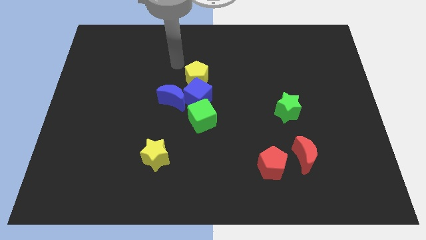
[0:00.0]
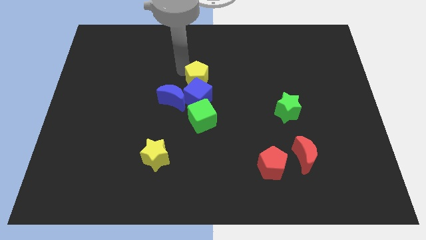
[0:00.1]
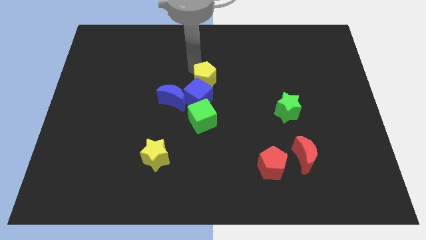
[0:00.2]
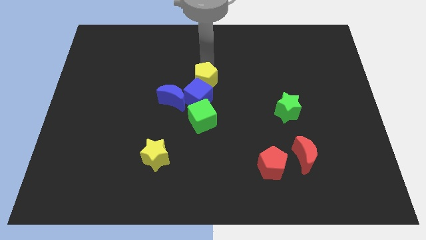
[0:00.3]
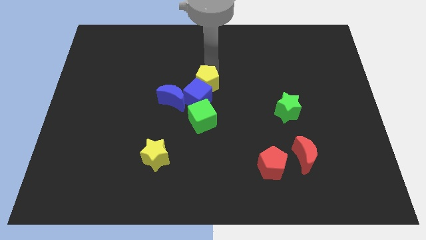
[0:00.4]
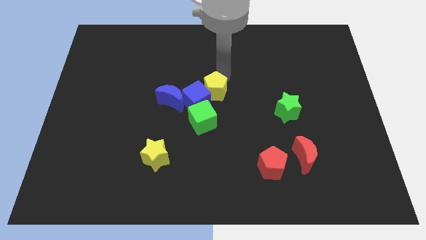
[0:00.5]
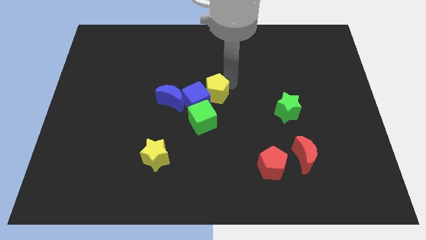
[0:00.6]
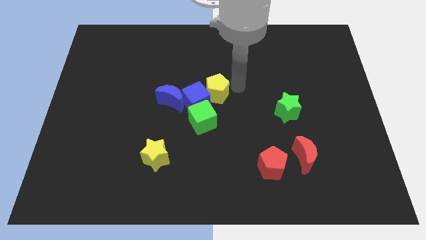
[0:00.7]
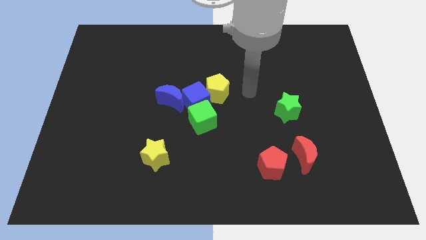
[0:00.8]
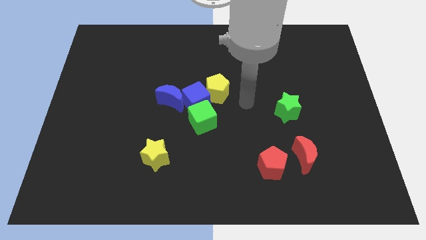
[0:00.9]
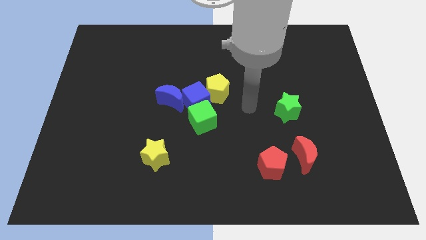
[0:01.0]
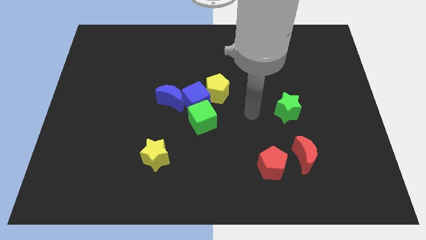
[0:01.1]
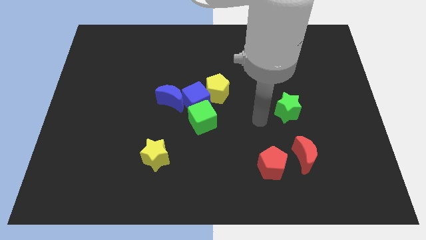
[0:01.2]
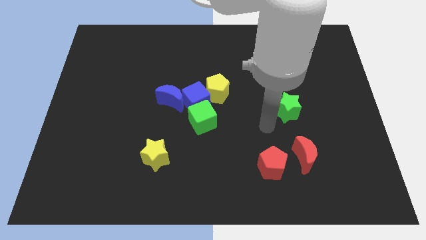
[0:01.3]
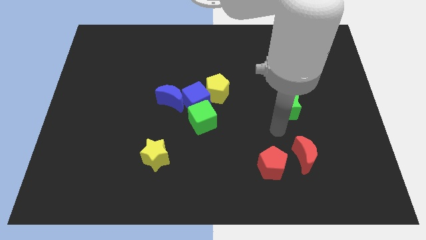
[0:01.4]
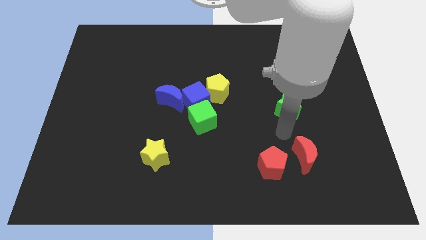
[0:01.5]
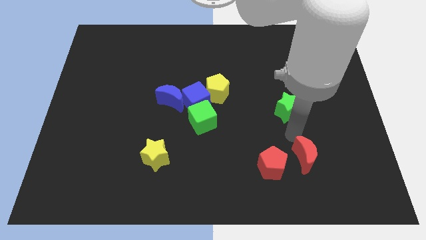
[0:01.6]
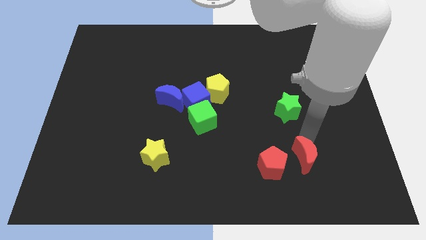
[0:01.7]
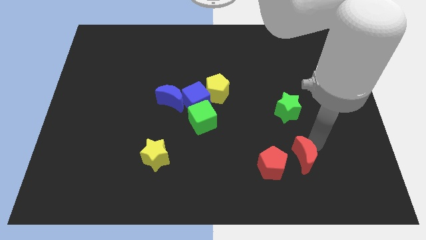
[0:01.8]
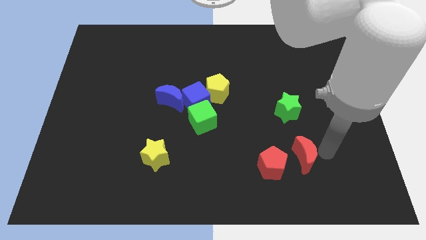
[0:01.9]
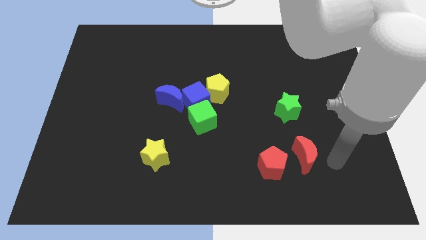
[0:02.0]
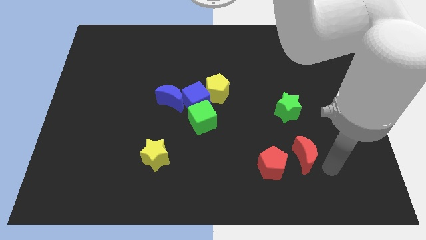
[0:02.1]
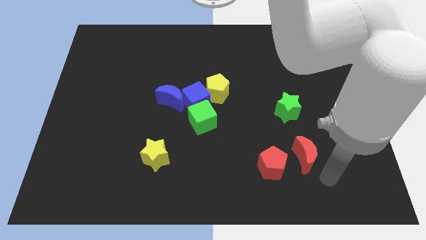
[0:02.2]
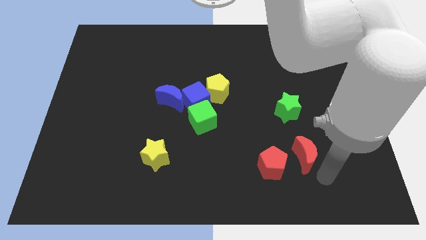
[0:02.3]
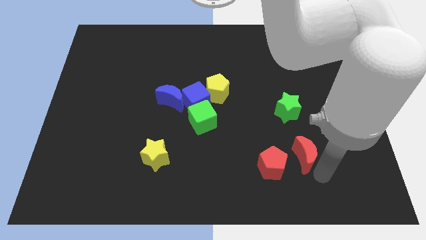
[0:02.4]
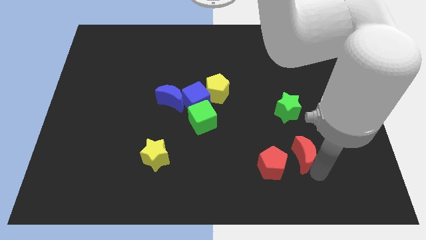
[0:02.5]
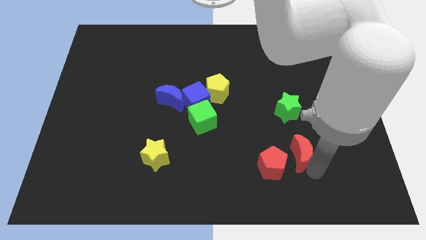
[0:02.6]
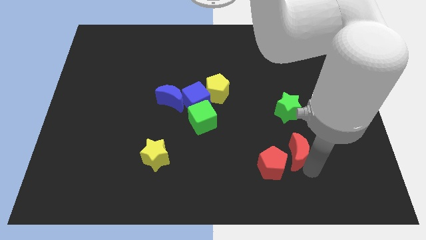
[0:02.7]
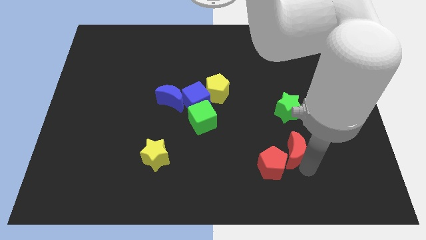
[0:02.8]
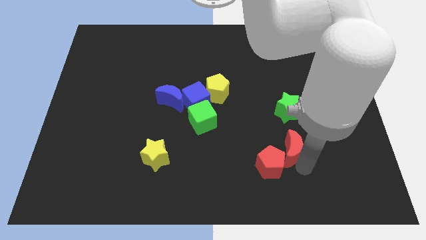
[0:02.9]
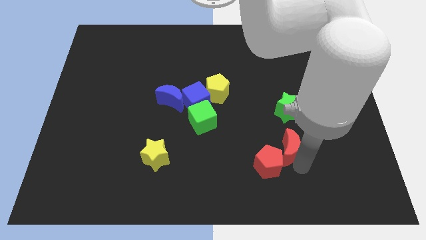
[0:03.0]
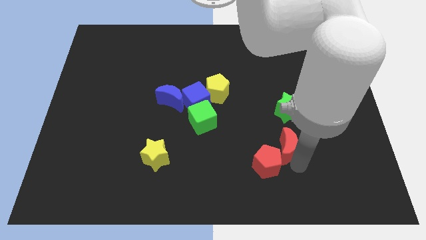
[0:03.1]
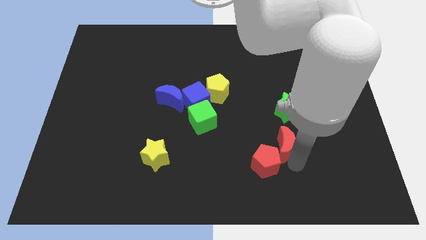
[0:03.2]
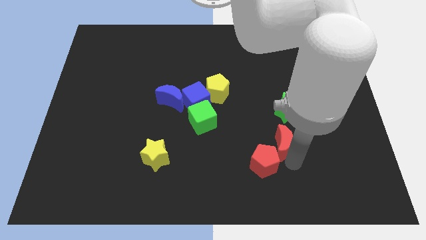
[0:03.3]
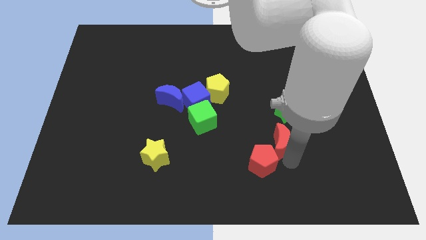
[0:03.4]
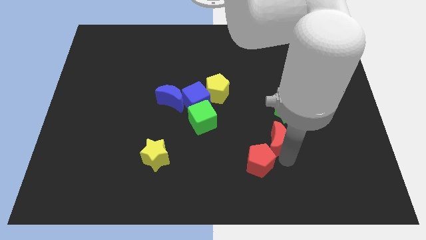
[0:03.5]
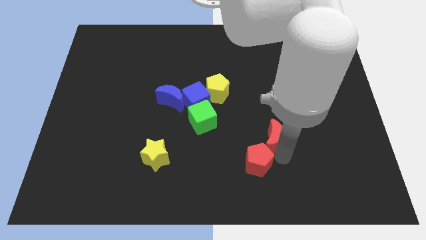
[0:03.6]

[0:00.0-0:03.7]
slightly push the red moon up and then left

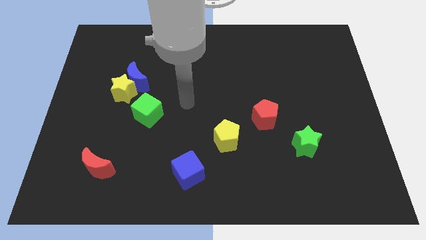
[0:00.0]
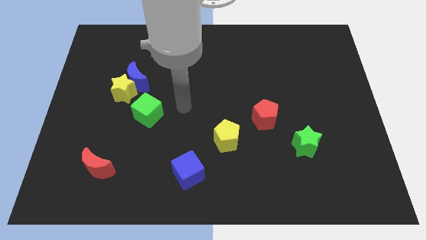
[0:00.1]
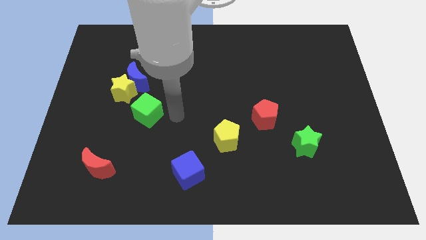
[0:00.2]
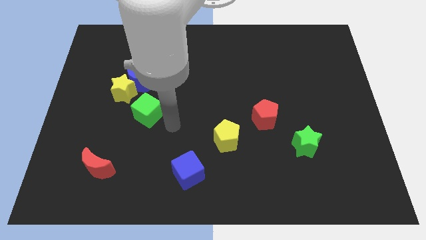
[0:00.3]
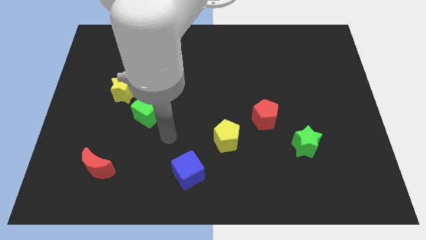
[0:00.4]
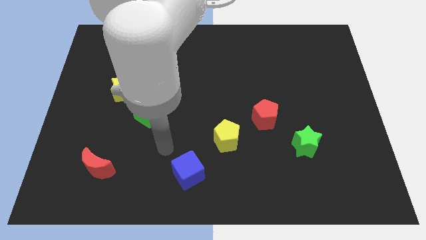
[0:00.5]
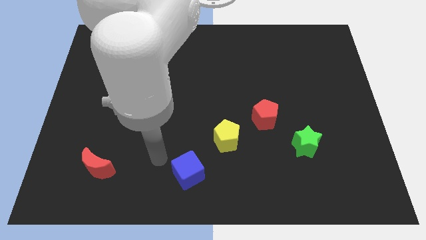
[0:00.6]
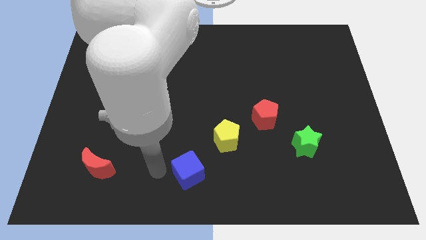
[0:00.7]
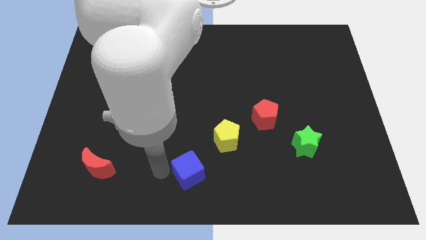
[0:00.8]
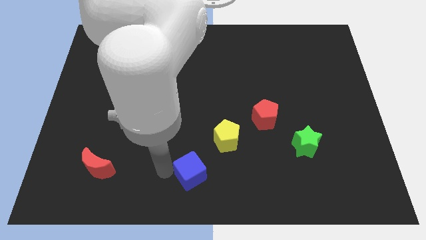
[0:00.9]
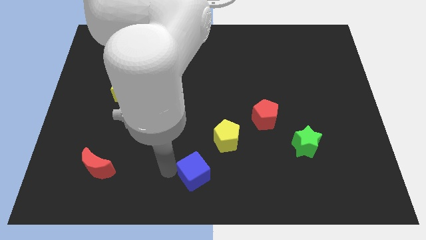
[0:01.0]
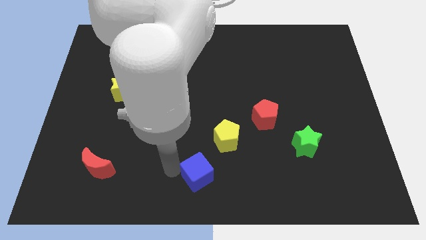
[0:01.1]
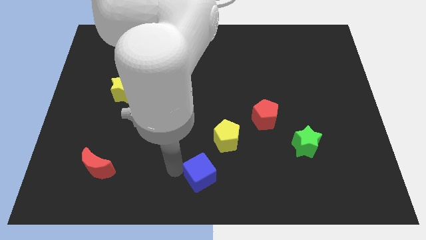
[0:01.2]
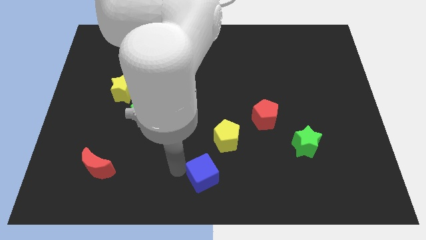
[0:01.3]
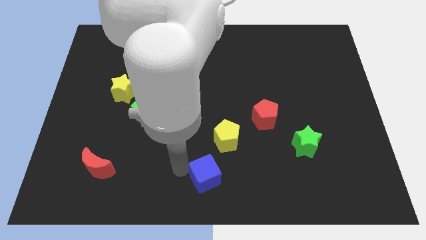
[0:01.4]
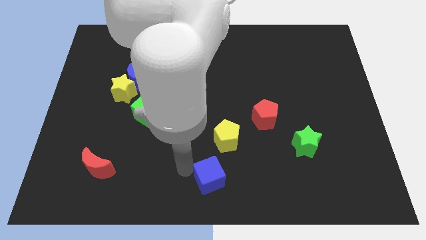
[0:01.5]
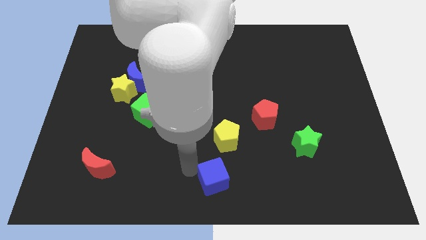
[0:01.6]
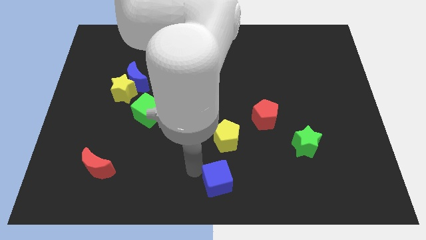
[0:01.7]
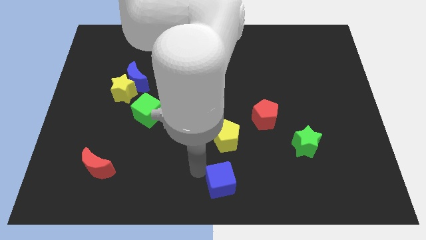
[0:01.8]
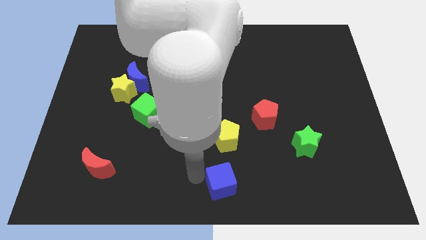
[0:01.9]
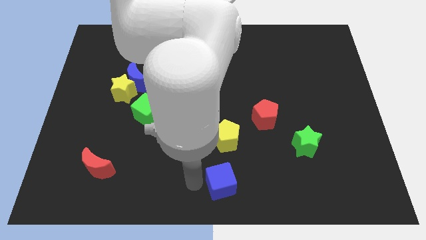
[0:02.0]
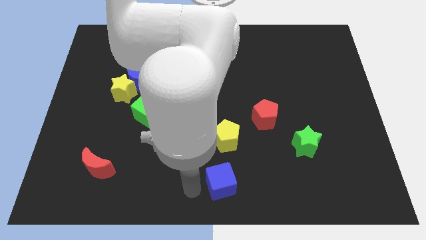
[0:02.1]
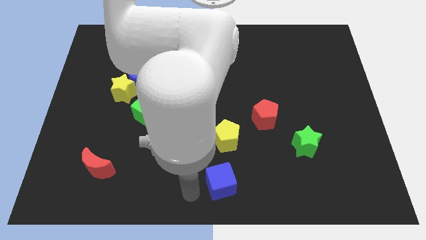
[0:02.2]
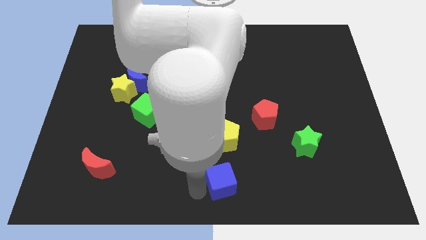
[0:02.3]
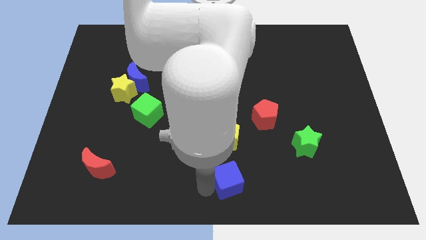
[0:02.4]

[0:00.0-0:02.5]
push the blue cube a little to the right

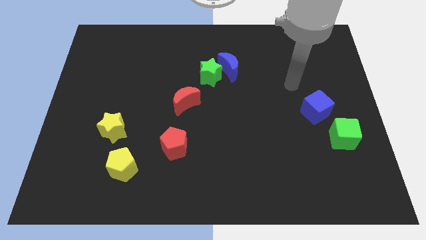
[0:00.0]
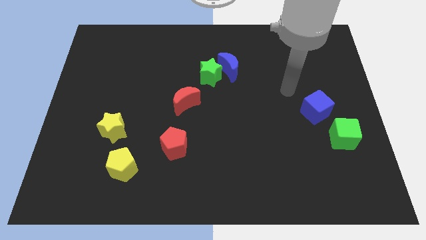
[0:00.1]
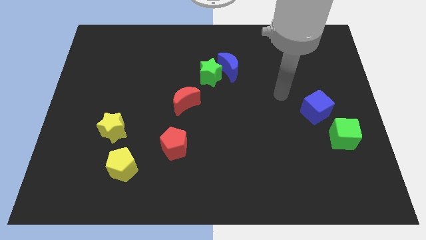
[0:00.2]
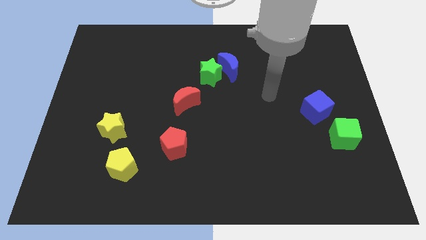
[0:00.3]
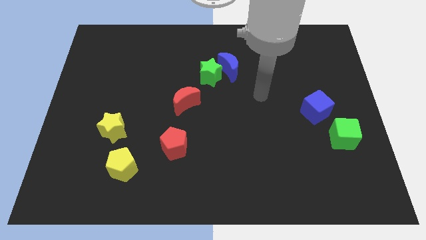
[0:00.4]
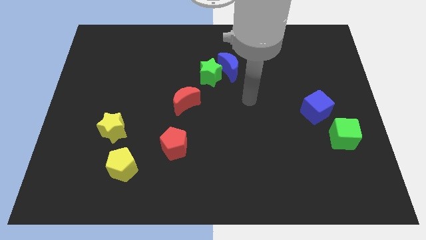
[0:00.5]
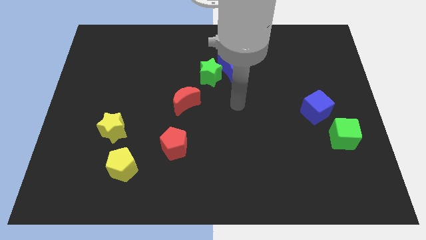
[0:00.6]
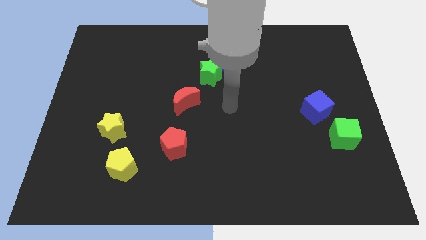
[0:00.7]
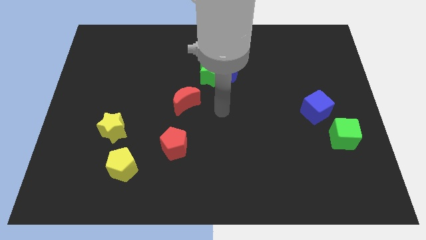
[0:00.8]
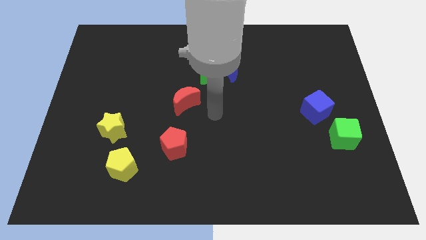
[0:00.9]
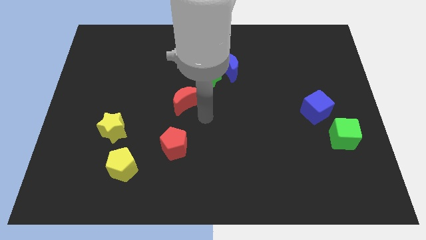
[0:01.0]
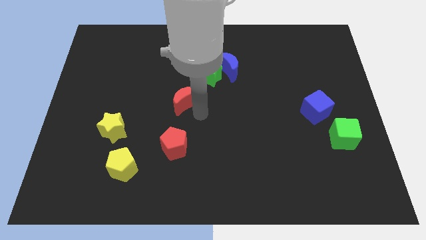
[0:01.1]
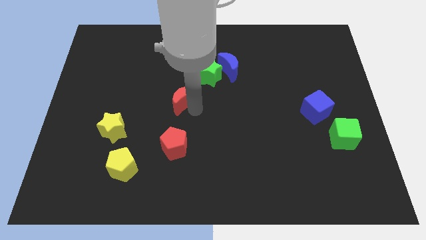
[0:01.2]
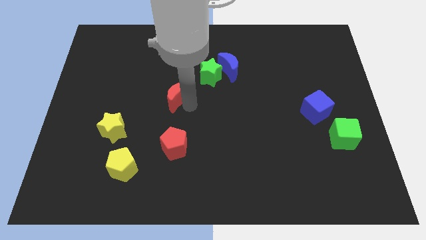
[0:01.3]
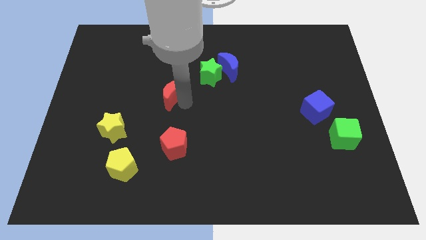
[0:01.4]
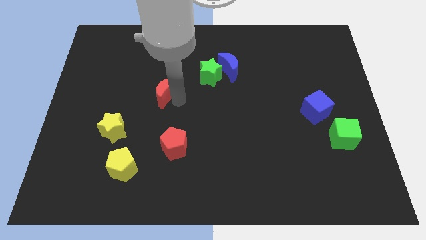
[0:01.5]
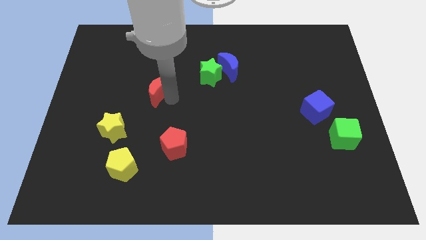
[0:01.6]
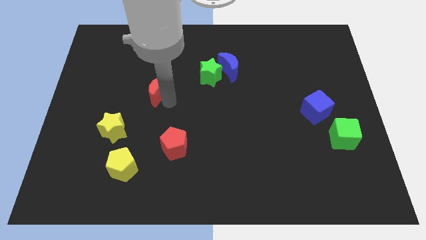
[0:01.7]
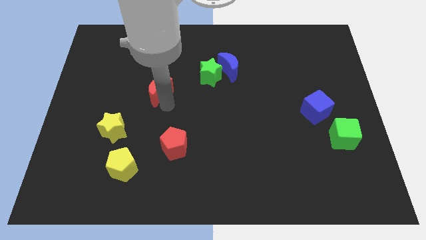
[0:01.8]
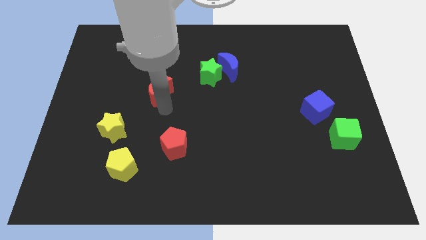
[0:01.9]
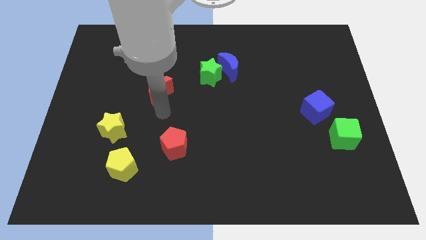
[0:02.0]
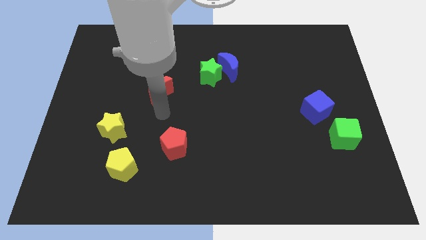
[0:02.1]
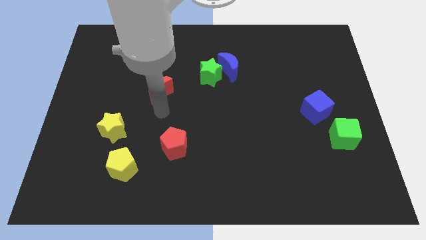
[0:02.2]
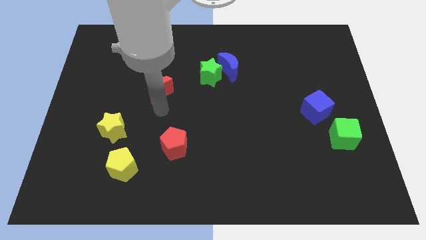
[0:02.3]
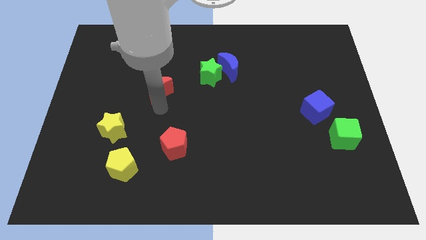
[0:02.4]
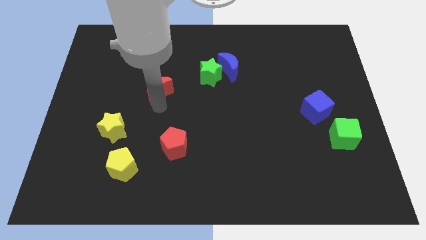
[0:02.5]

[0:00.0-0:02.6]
push the red moon a little bit diagonally upwards and to the left
